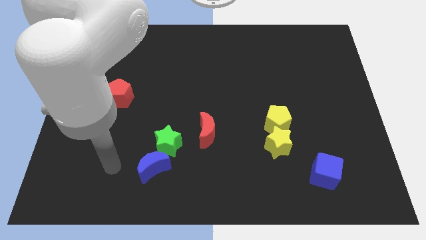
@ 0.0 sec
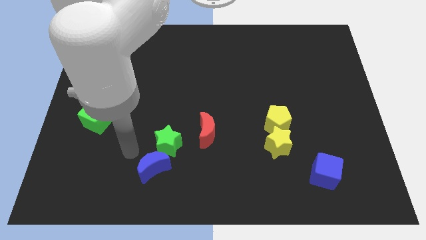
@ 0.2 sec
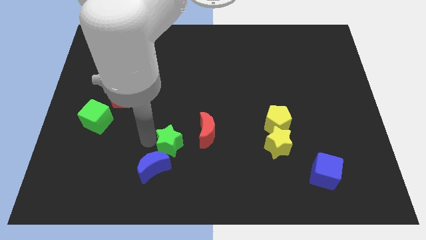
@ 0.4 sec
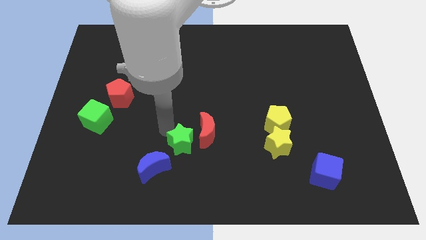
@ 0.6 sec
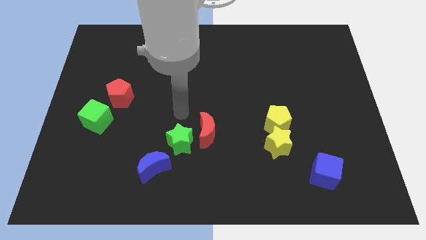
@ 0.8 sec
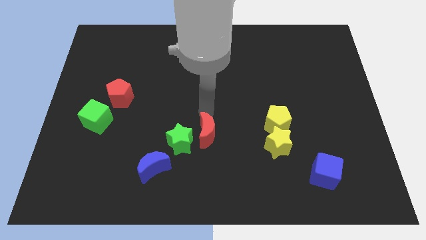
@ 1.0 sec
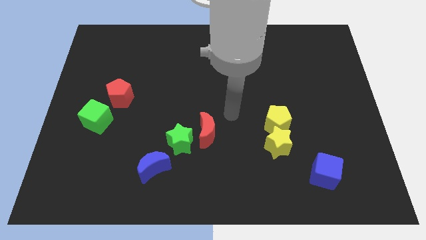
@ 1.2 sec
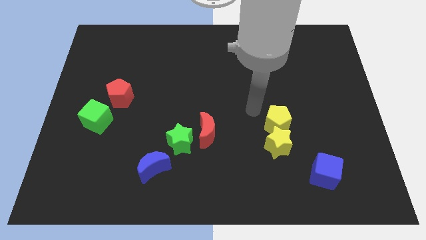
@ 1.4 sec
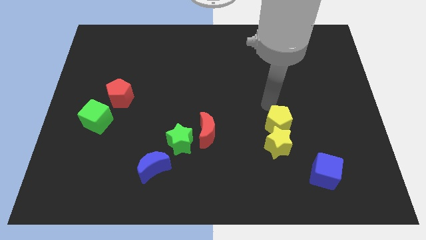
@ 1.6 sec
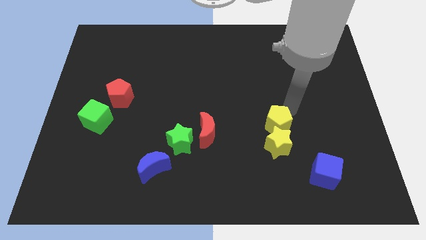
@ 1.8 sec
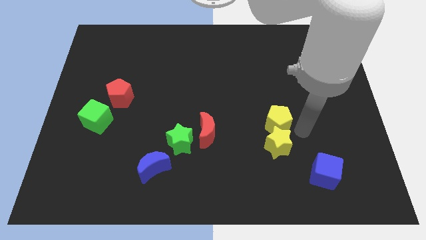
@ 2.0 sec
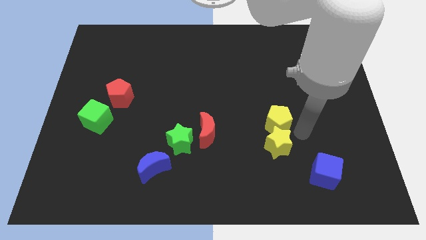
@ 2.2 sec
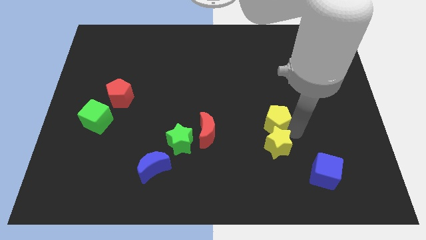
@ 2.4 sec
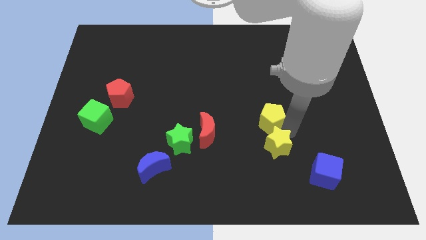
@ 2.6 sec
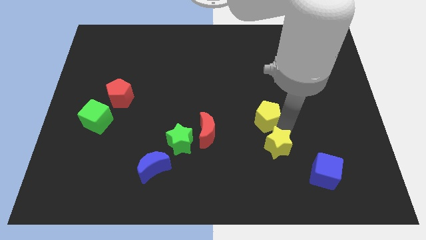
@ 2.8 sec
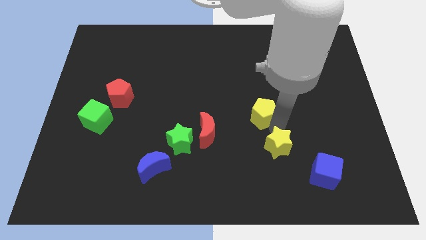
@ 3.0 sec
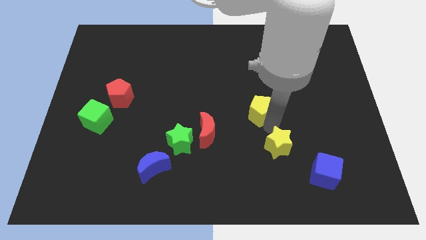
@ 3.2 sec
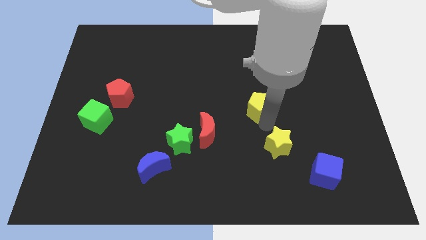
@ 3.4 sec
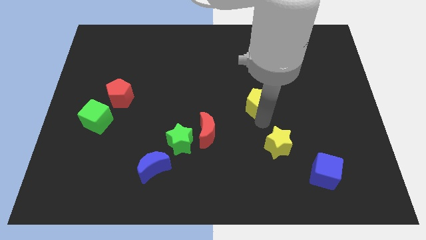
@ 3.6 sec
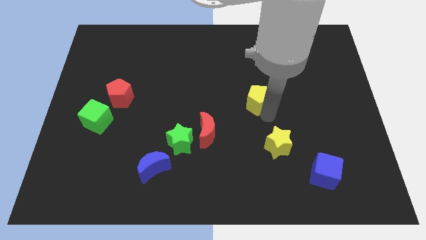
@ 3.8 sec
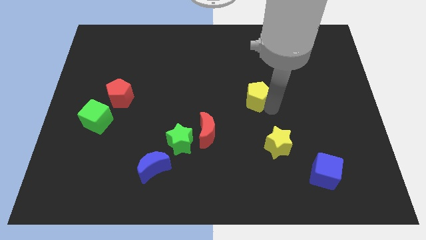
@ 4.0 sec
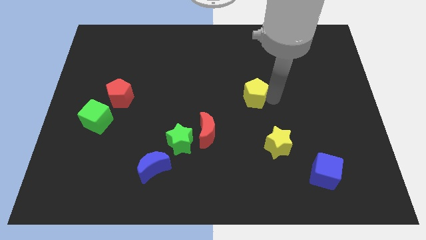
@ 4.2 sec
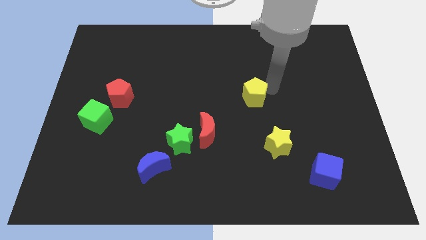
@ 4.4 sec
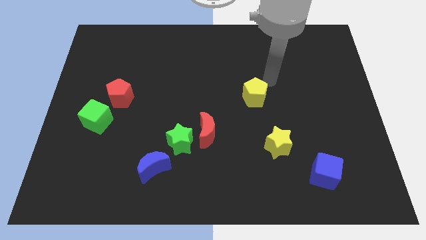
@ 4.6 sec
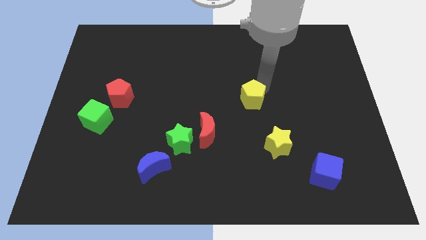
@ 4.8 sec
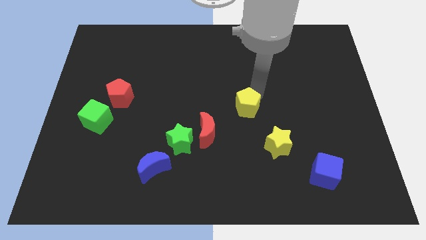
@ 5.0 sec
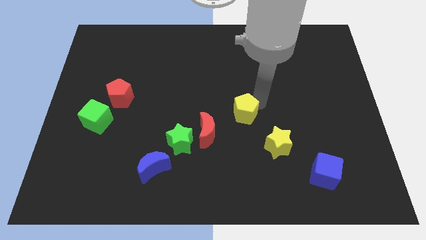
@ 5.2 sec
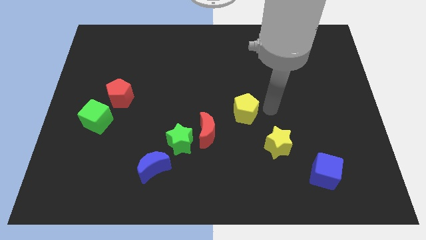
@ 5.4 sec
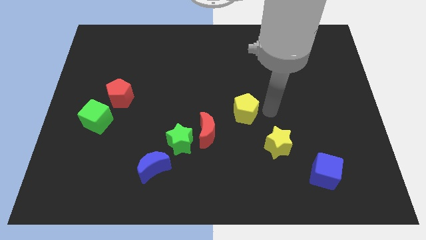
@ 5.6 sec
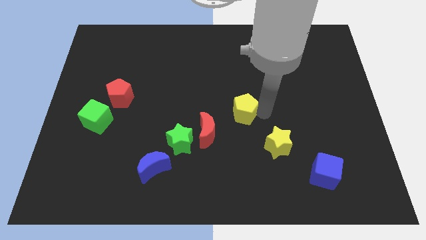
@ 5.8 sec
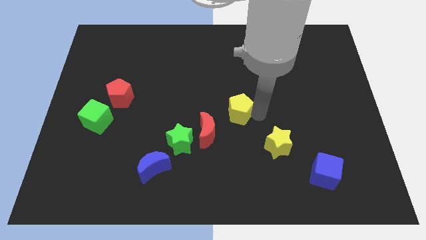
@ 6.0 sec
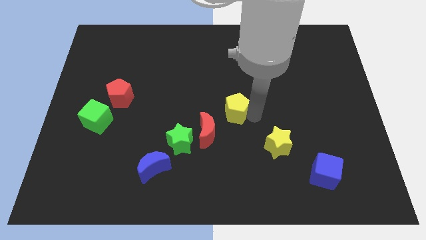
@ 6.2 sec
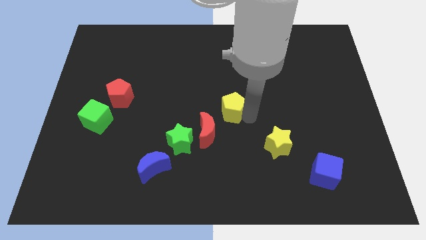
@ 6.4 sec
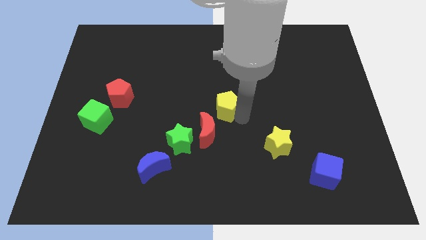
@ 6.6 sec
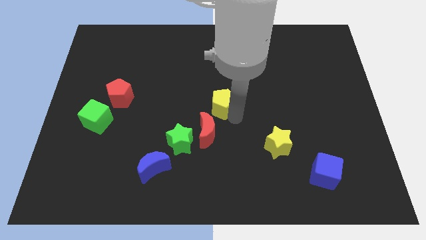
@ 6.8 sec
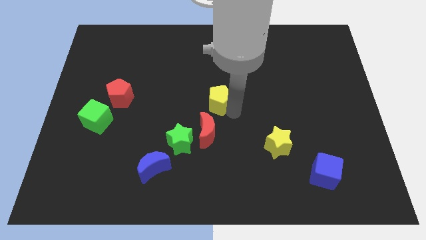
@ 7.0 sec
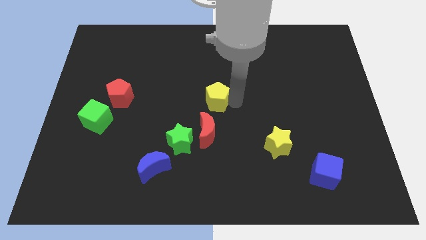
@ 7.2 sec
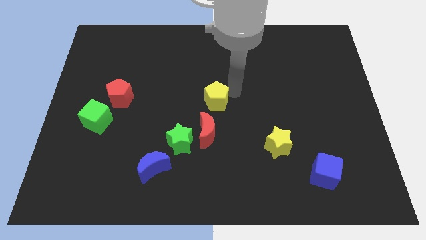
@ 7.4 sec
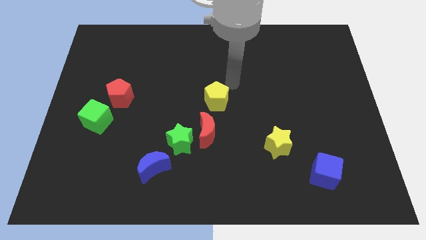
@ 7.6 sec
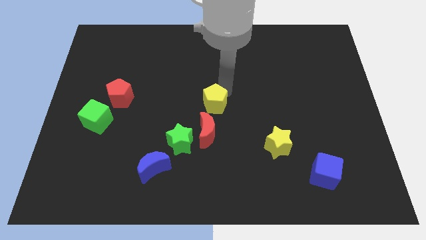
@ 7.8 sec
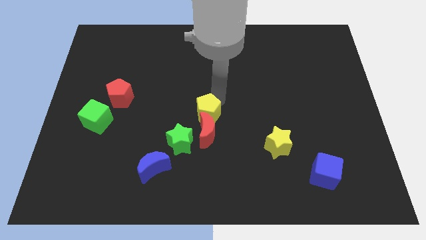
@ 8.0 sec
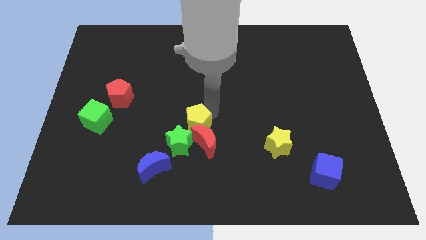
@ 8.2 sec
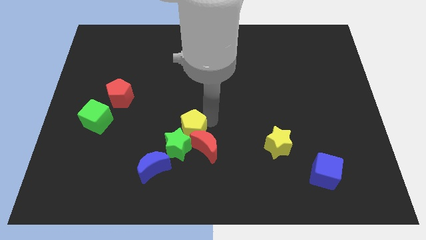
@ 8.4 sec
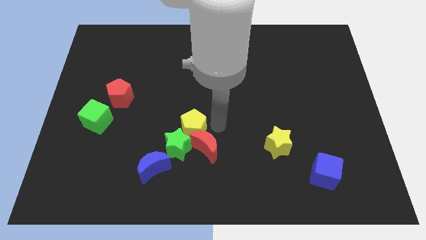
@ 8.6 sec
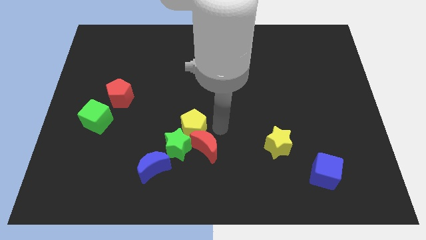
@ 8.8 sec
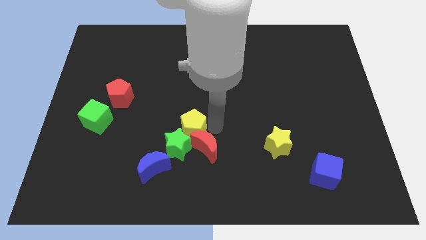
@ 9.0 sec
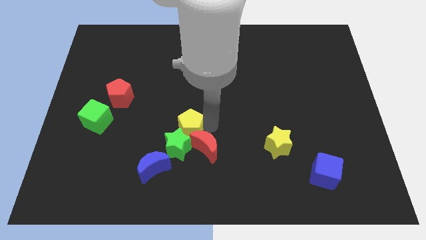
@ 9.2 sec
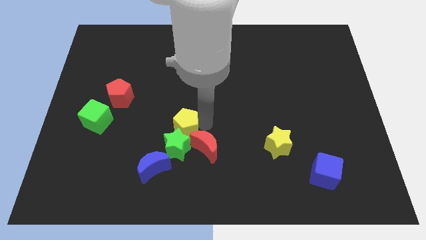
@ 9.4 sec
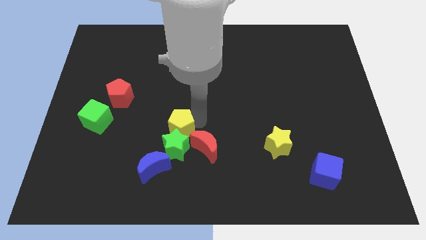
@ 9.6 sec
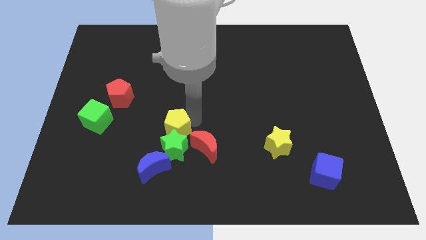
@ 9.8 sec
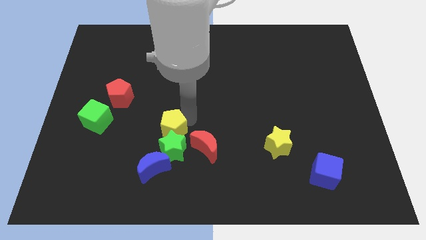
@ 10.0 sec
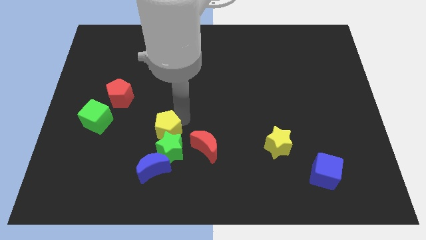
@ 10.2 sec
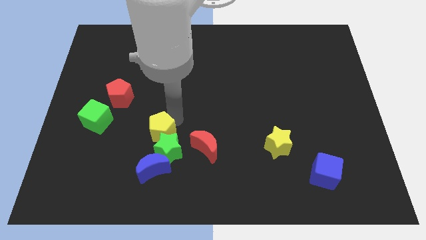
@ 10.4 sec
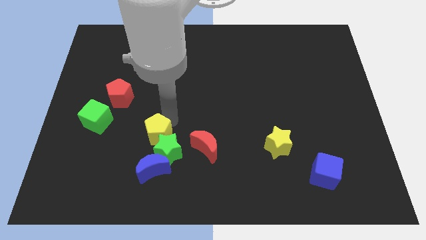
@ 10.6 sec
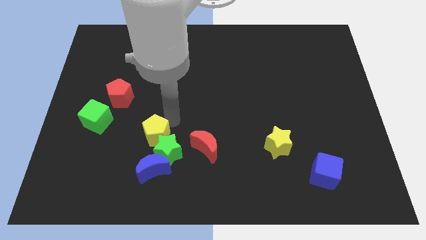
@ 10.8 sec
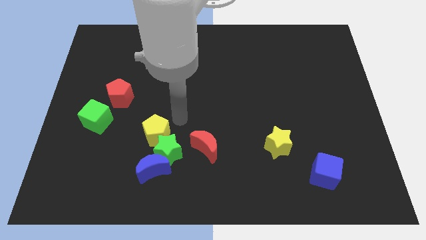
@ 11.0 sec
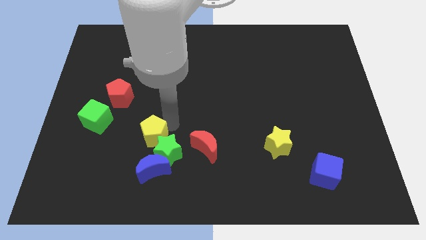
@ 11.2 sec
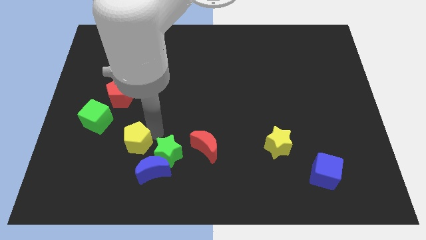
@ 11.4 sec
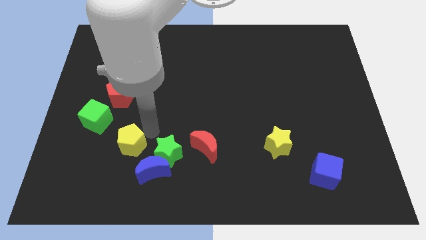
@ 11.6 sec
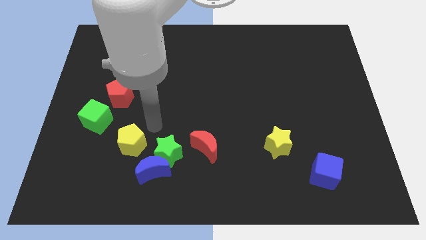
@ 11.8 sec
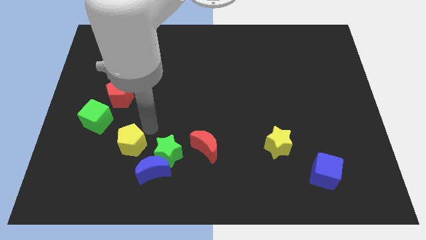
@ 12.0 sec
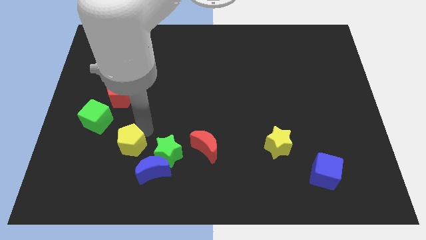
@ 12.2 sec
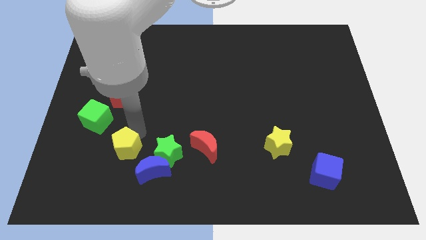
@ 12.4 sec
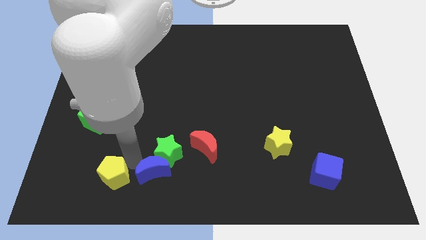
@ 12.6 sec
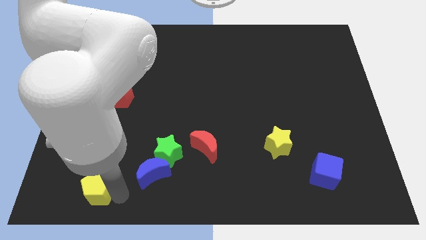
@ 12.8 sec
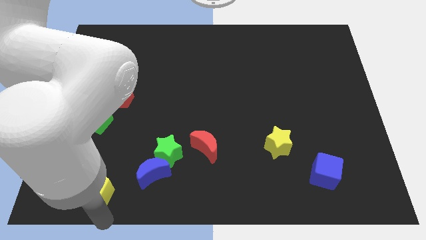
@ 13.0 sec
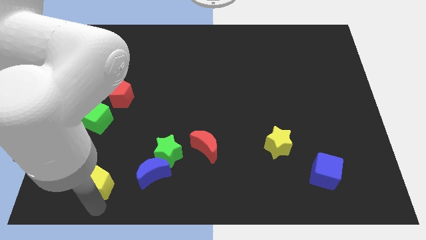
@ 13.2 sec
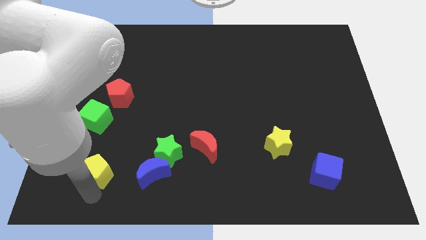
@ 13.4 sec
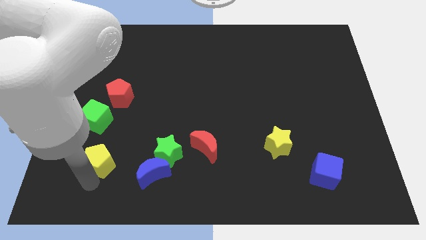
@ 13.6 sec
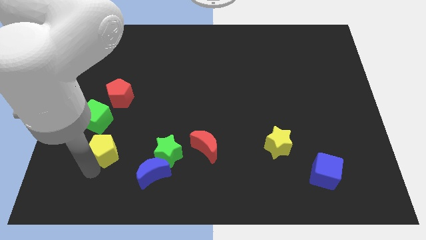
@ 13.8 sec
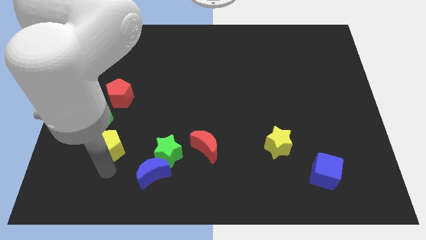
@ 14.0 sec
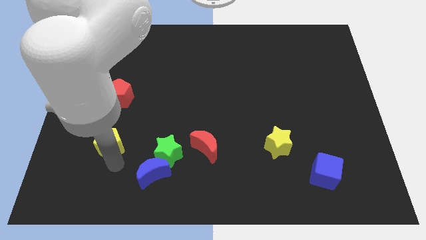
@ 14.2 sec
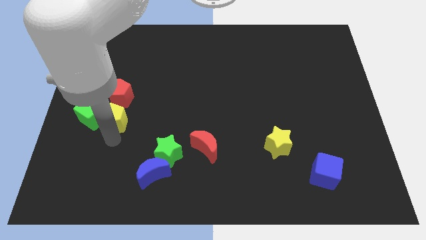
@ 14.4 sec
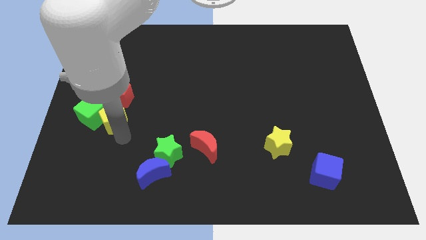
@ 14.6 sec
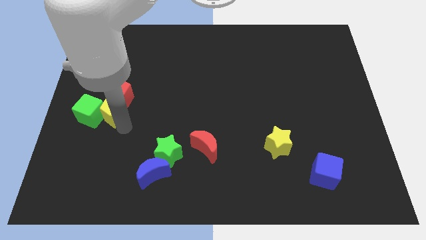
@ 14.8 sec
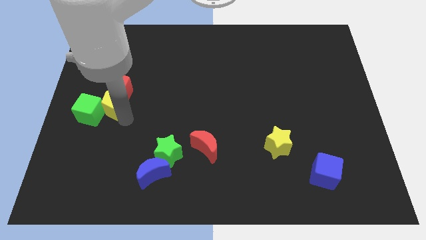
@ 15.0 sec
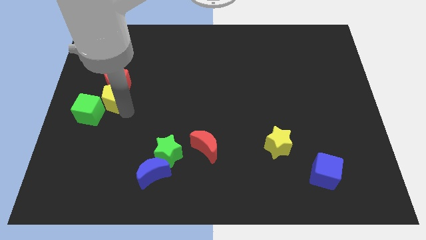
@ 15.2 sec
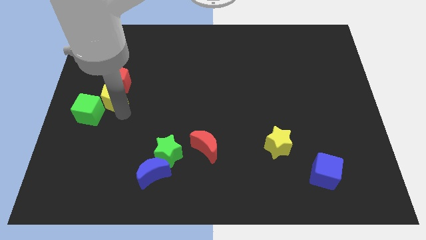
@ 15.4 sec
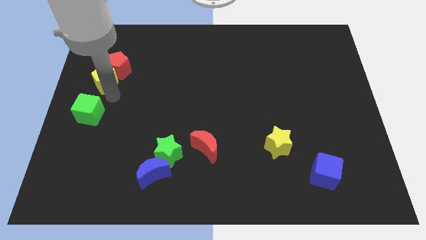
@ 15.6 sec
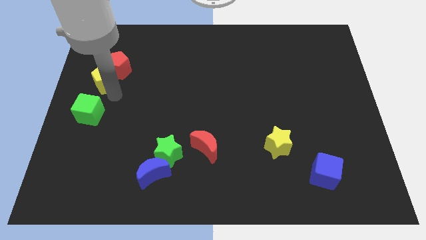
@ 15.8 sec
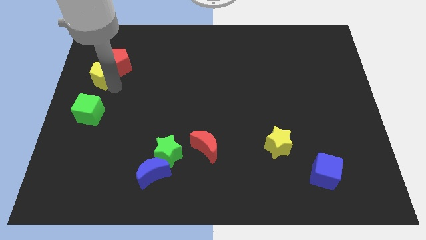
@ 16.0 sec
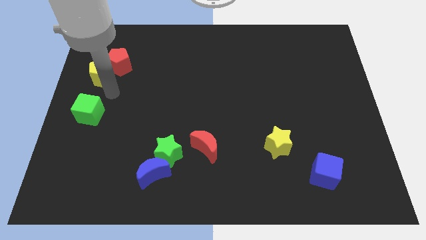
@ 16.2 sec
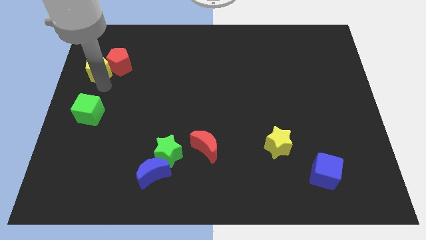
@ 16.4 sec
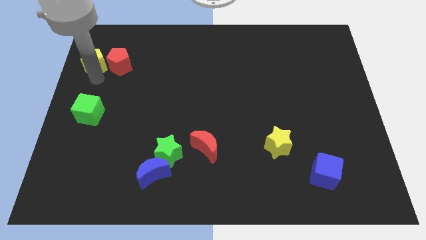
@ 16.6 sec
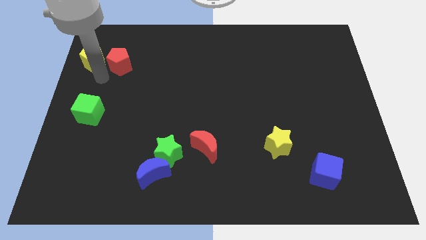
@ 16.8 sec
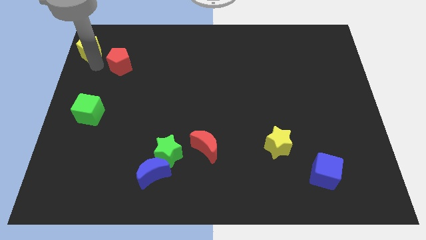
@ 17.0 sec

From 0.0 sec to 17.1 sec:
push the yellow pentagon to the upper left corner
